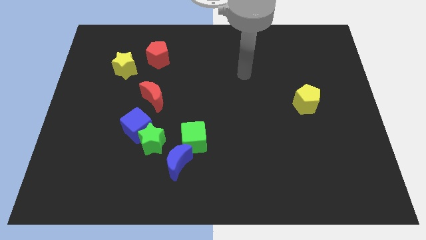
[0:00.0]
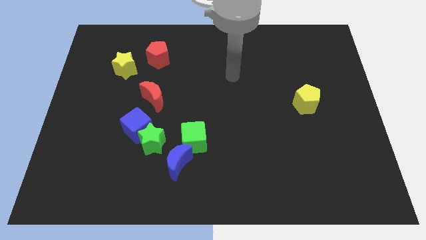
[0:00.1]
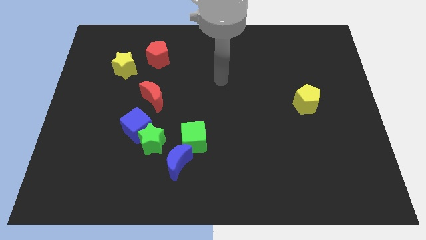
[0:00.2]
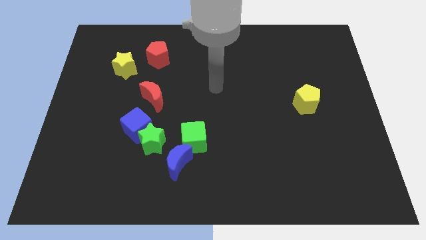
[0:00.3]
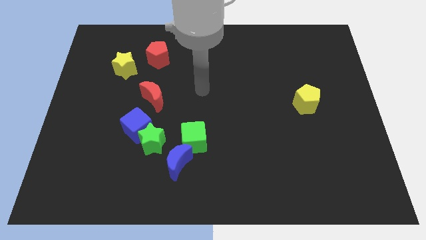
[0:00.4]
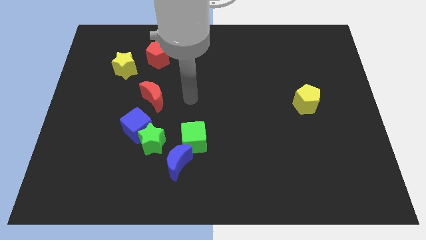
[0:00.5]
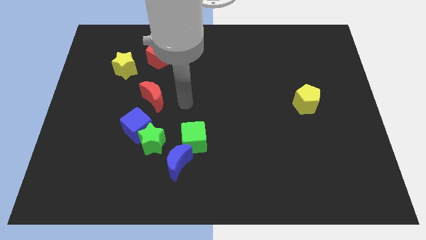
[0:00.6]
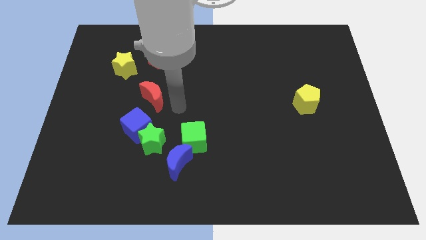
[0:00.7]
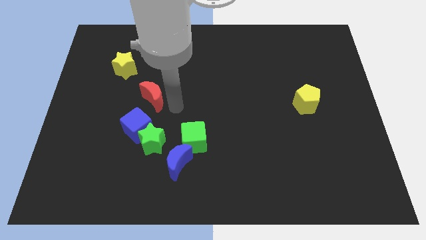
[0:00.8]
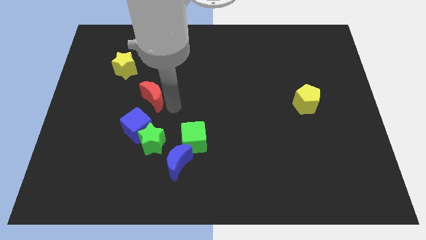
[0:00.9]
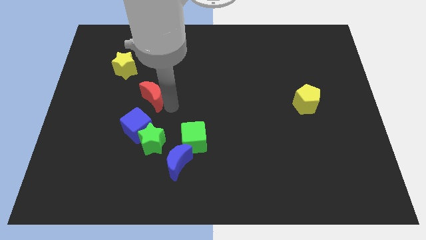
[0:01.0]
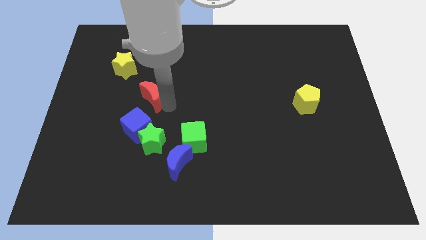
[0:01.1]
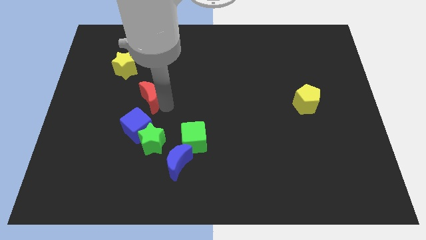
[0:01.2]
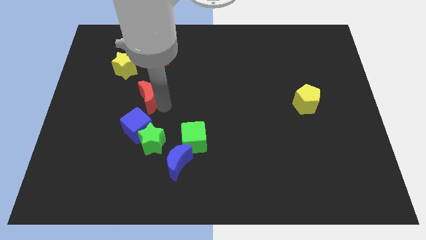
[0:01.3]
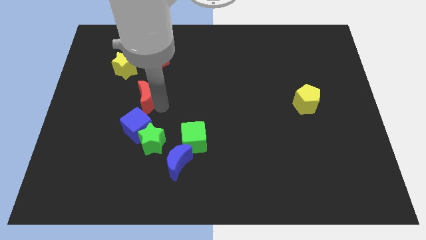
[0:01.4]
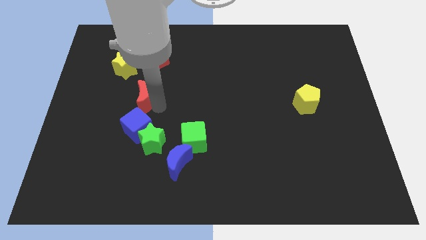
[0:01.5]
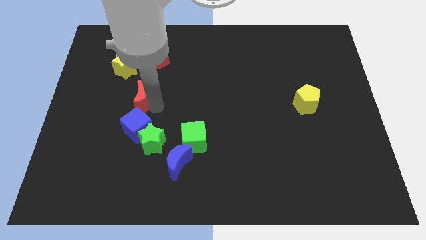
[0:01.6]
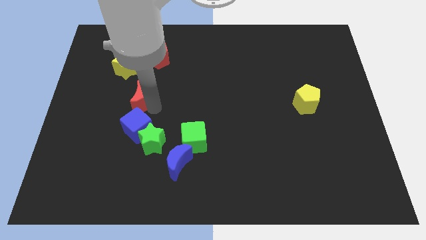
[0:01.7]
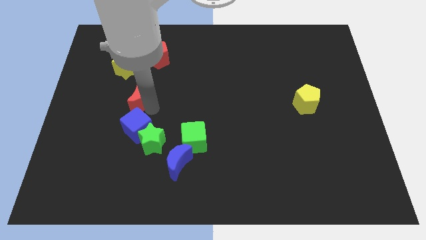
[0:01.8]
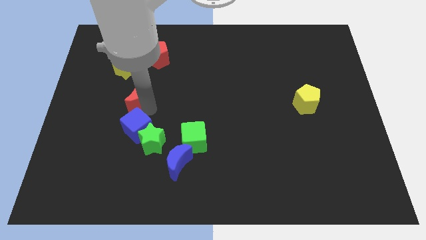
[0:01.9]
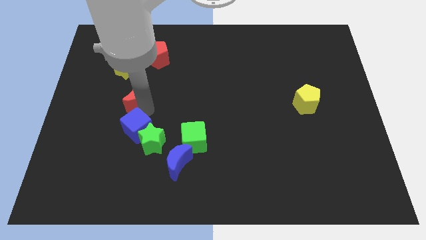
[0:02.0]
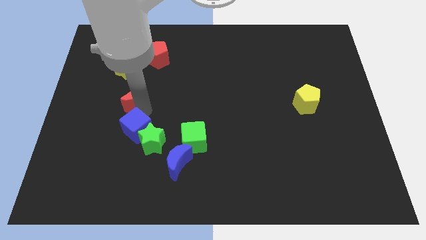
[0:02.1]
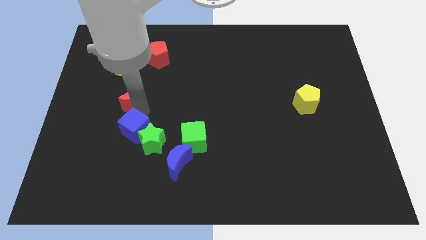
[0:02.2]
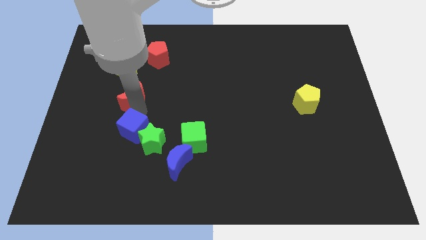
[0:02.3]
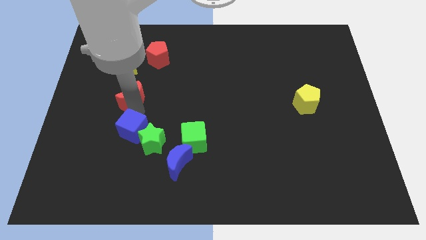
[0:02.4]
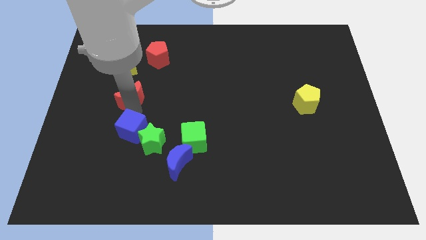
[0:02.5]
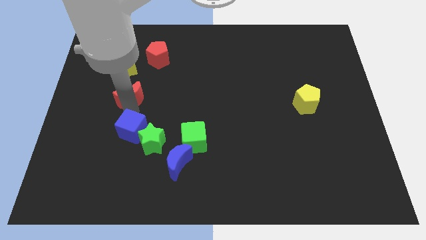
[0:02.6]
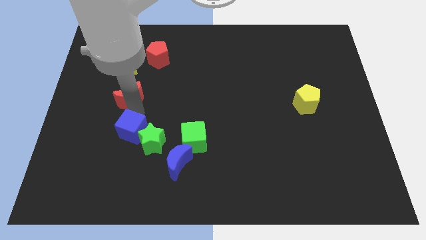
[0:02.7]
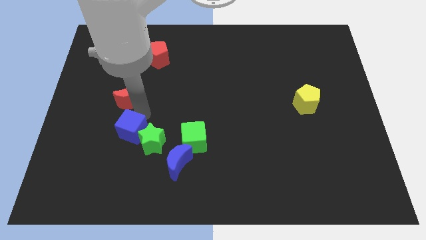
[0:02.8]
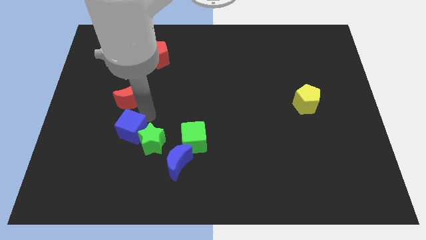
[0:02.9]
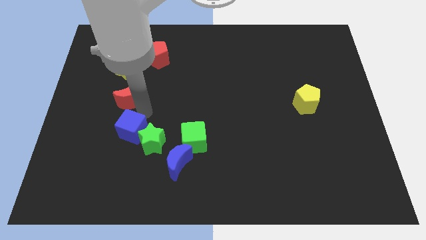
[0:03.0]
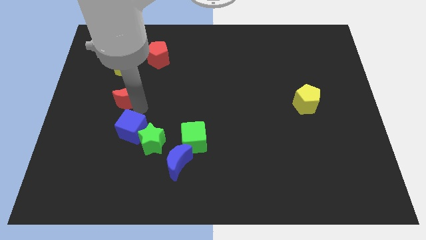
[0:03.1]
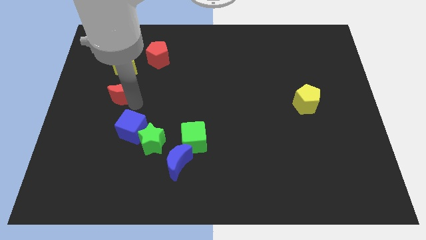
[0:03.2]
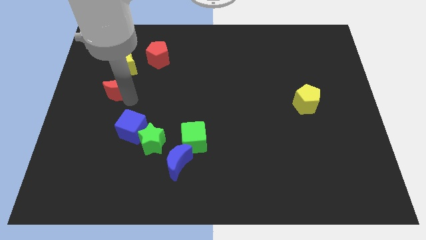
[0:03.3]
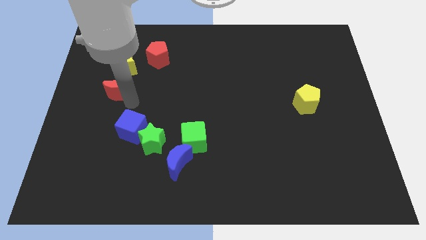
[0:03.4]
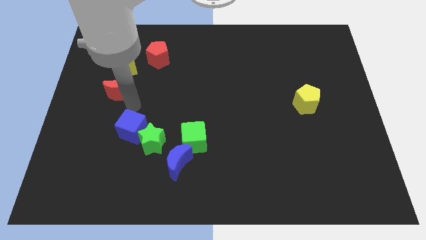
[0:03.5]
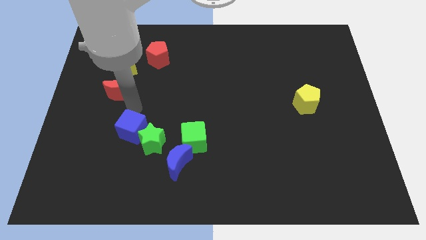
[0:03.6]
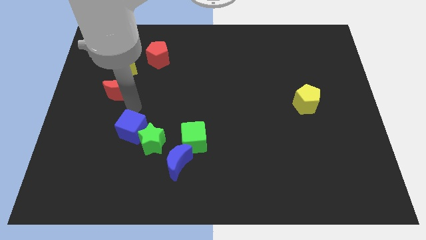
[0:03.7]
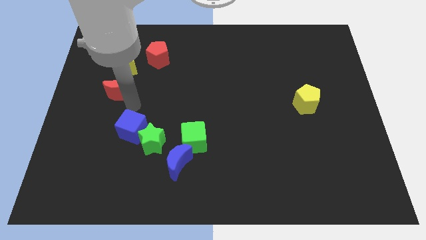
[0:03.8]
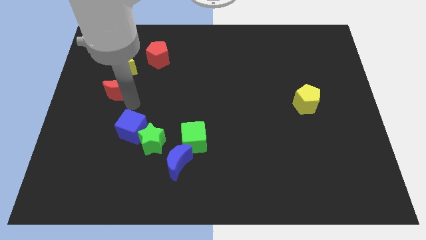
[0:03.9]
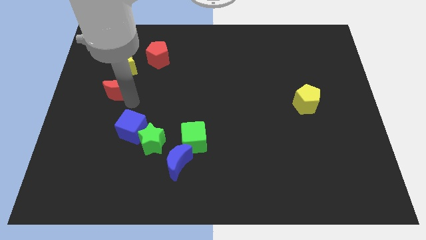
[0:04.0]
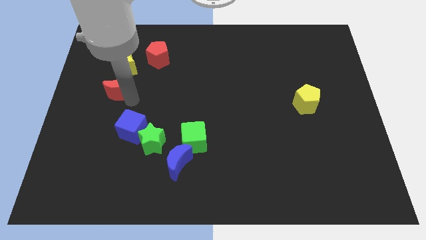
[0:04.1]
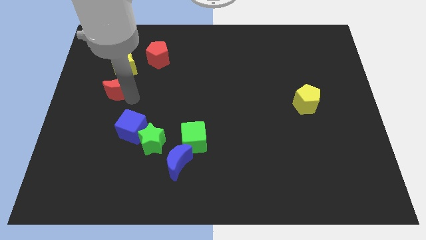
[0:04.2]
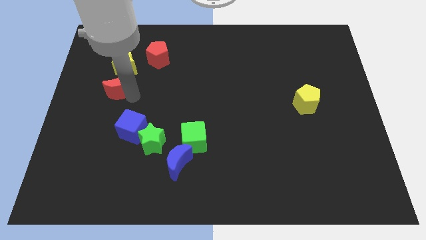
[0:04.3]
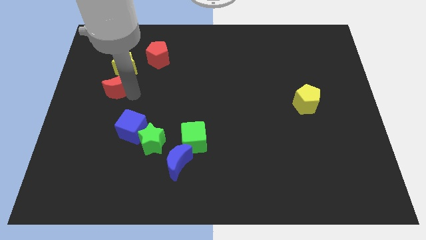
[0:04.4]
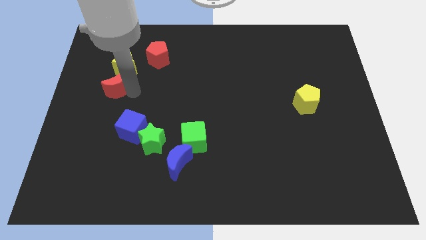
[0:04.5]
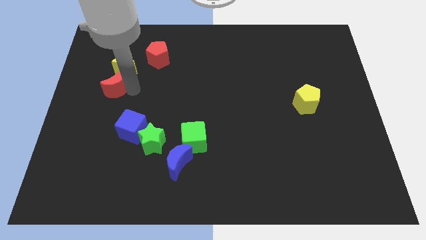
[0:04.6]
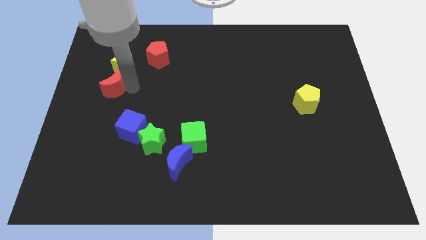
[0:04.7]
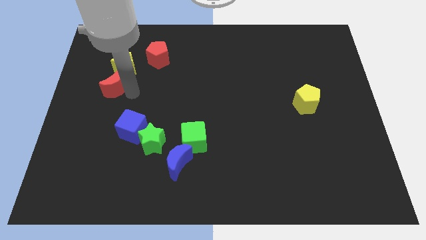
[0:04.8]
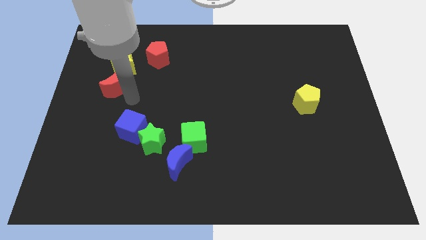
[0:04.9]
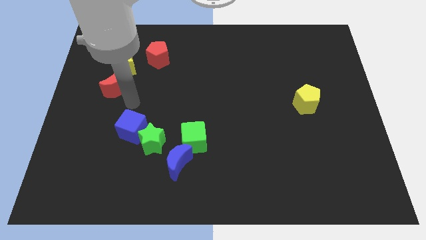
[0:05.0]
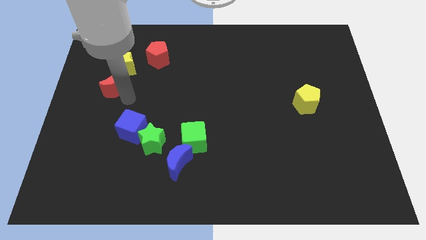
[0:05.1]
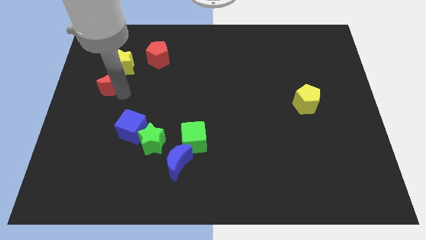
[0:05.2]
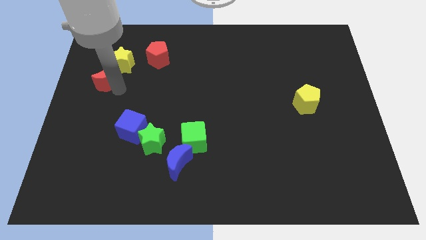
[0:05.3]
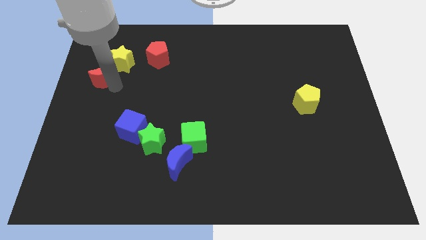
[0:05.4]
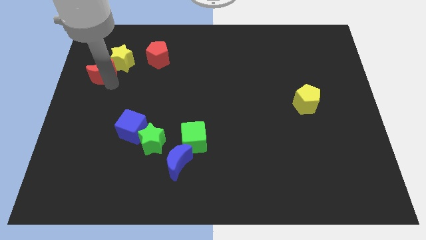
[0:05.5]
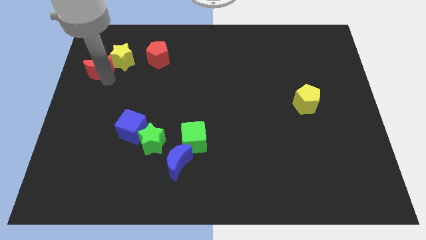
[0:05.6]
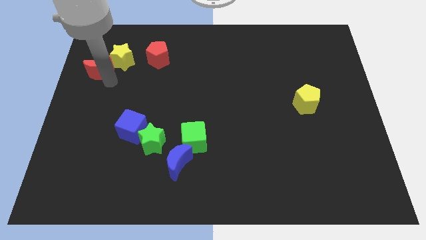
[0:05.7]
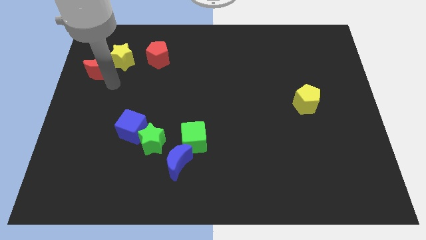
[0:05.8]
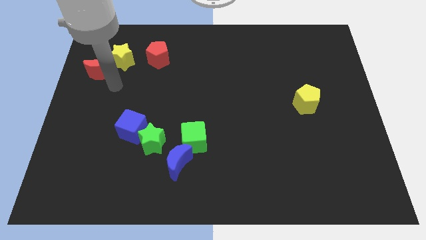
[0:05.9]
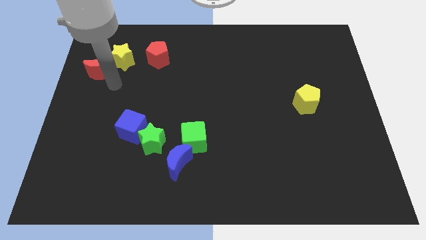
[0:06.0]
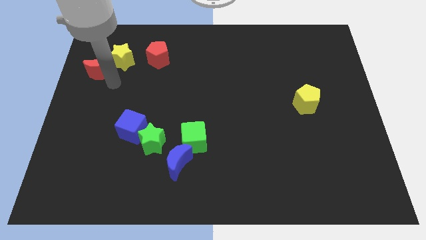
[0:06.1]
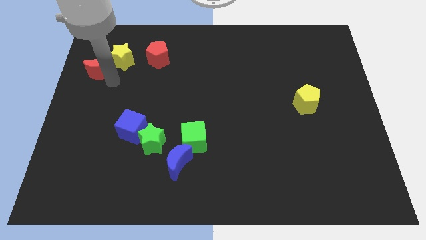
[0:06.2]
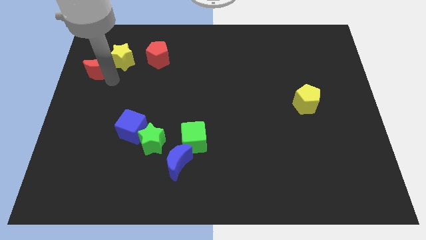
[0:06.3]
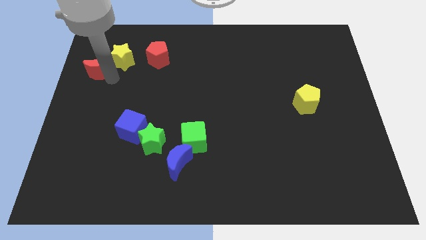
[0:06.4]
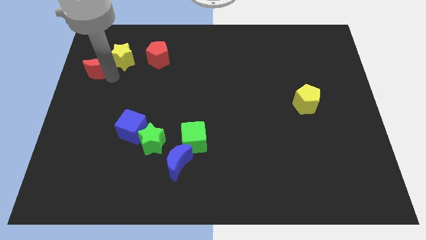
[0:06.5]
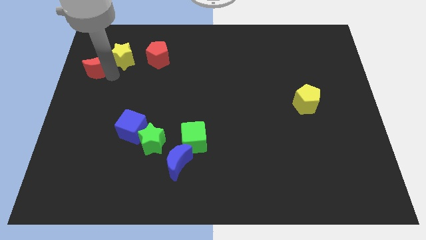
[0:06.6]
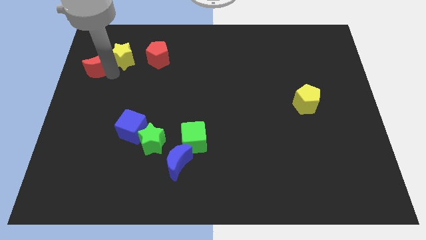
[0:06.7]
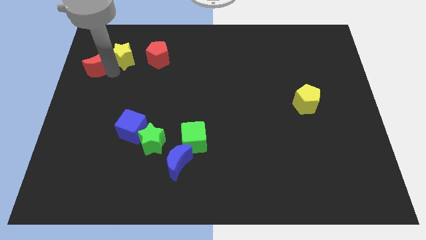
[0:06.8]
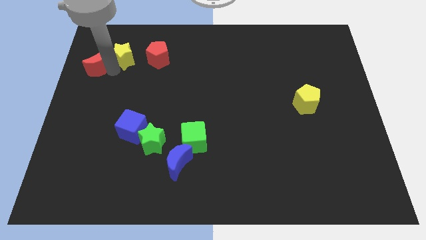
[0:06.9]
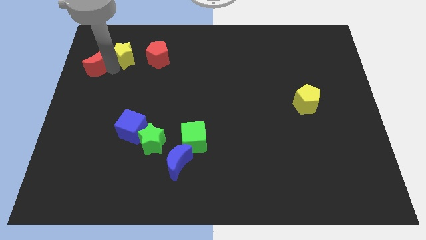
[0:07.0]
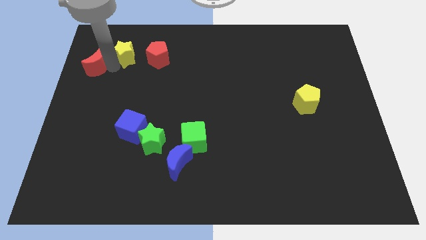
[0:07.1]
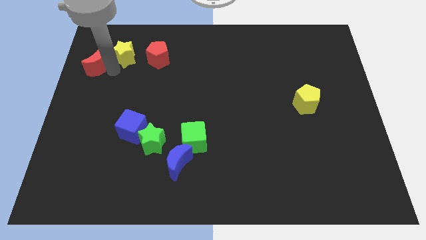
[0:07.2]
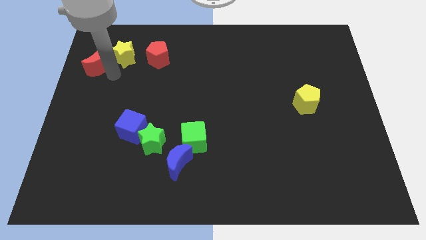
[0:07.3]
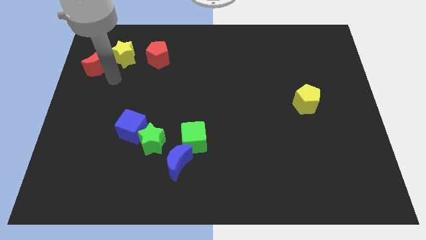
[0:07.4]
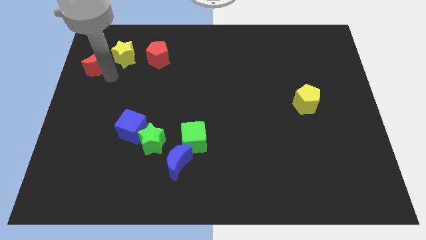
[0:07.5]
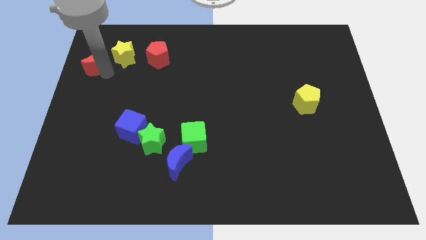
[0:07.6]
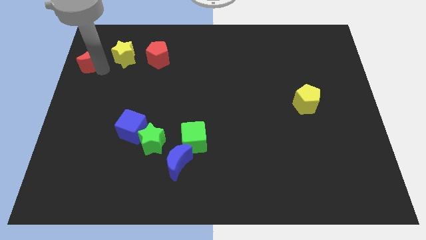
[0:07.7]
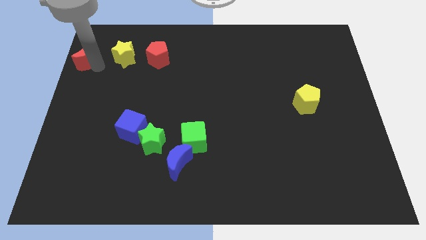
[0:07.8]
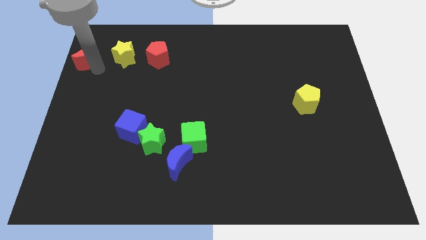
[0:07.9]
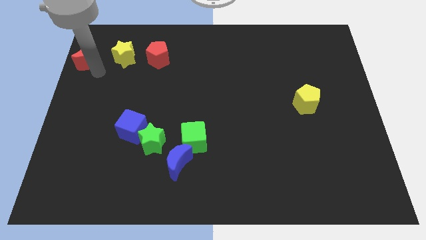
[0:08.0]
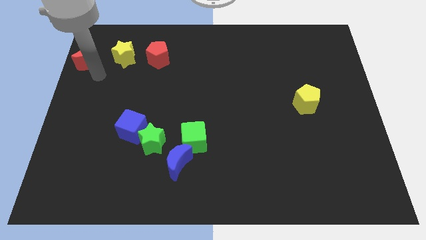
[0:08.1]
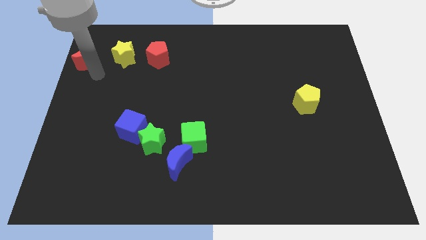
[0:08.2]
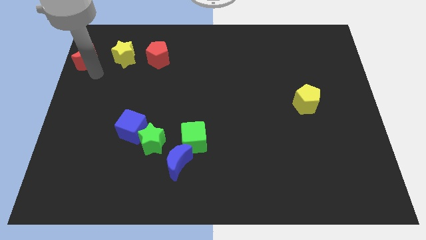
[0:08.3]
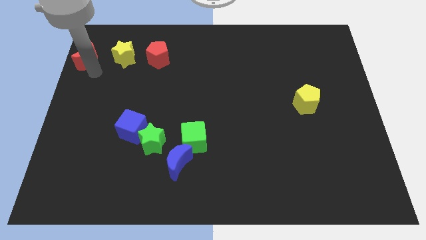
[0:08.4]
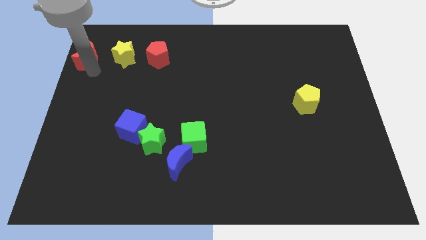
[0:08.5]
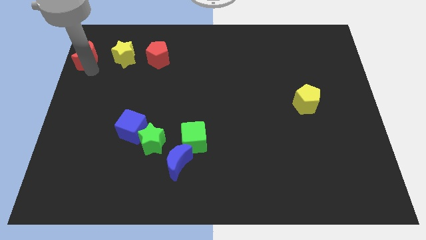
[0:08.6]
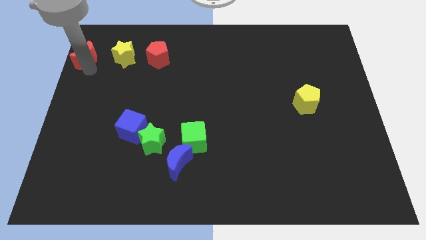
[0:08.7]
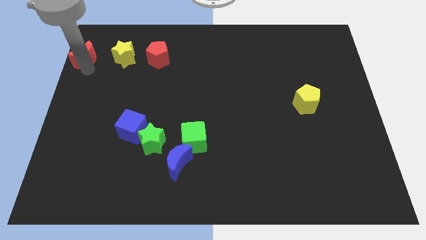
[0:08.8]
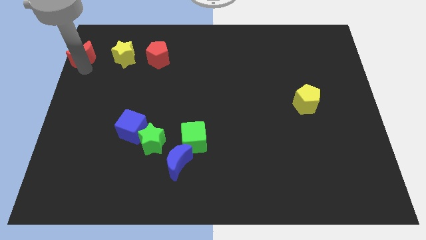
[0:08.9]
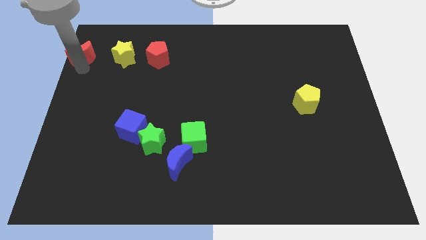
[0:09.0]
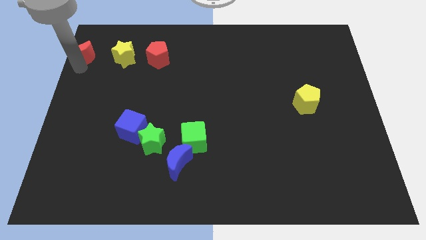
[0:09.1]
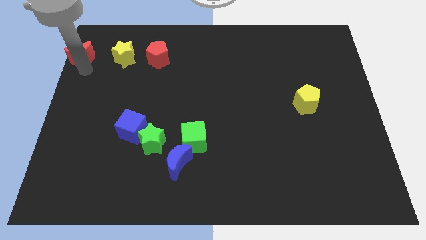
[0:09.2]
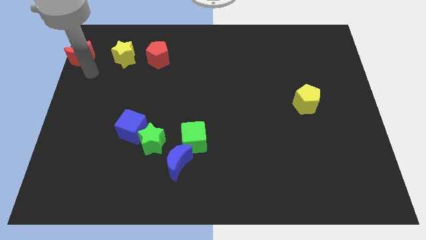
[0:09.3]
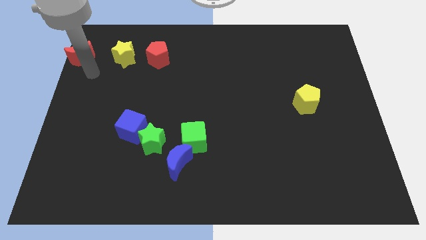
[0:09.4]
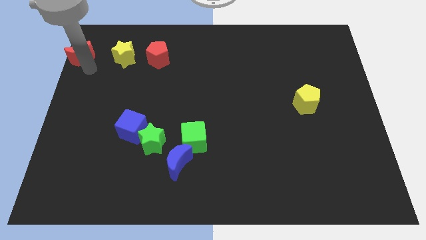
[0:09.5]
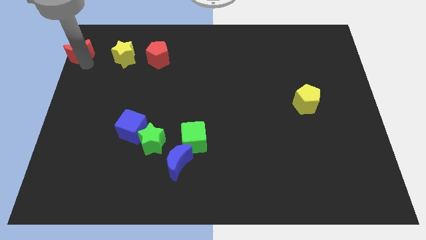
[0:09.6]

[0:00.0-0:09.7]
move the red moon to the top left corner
